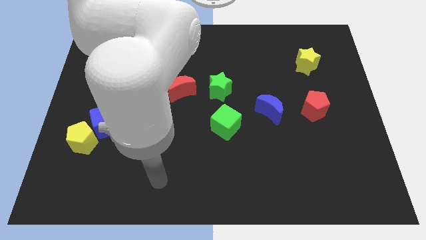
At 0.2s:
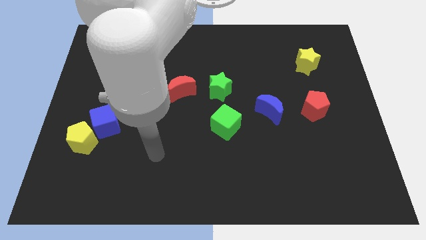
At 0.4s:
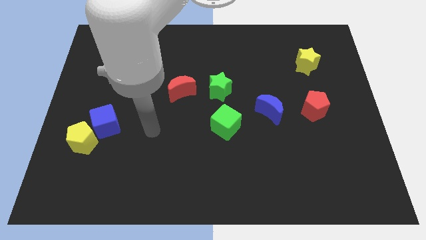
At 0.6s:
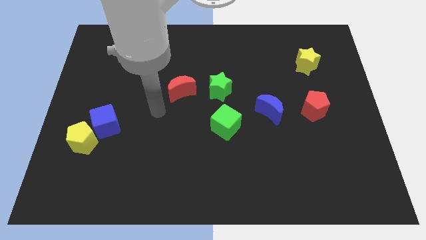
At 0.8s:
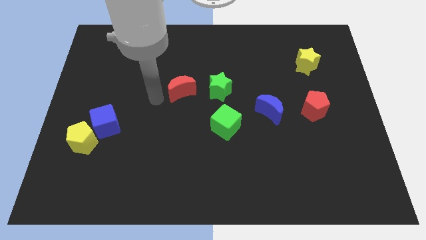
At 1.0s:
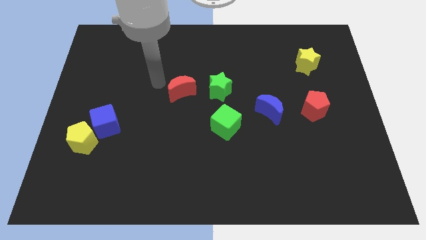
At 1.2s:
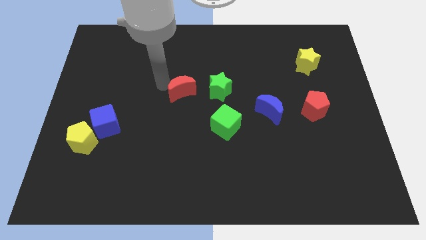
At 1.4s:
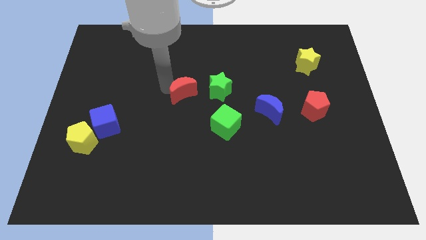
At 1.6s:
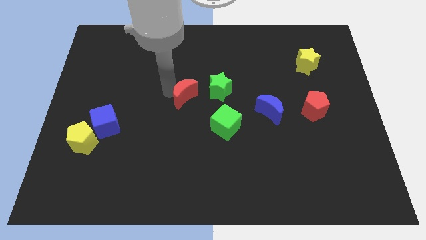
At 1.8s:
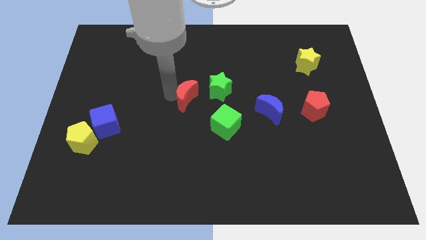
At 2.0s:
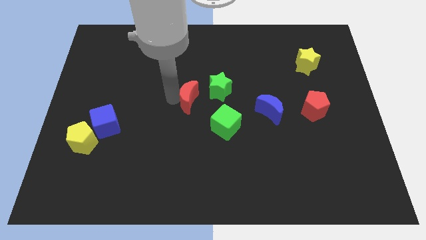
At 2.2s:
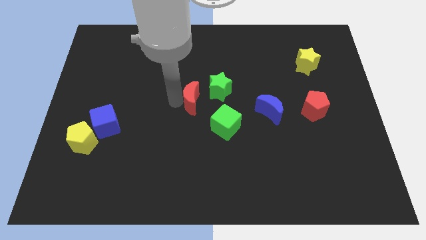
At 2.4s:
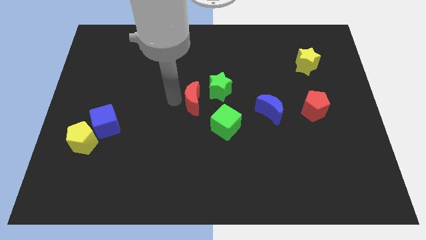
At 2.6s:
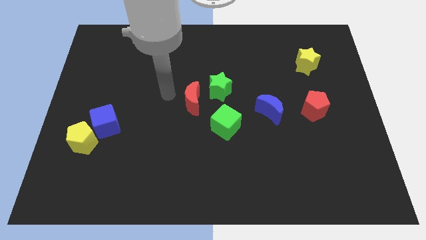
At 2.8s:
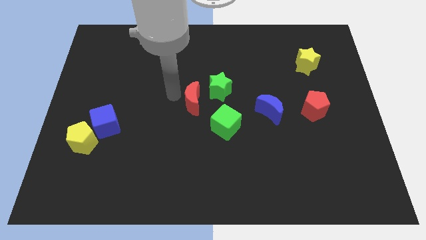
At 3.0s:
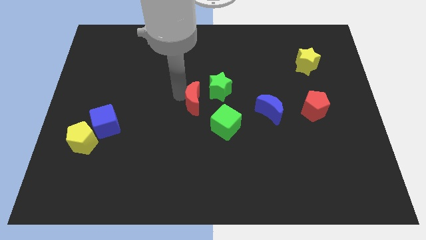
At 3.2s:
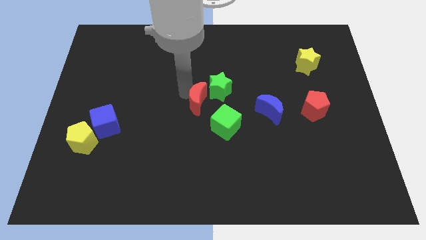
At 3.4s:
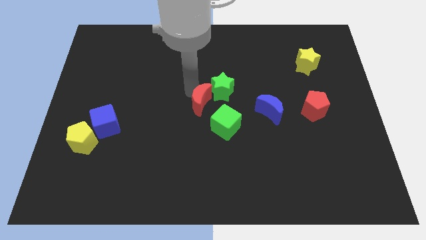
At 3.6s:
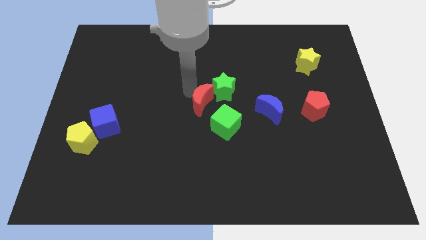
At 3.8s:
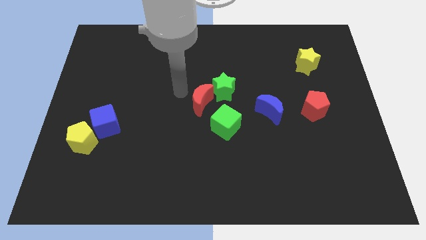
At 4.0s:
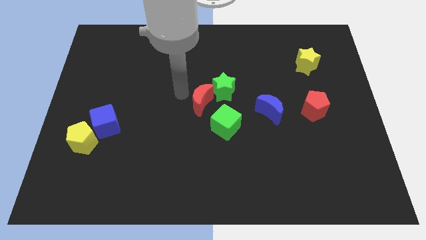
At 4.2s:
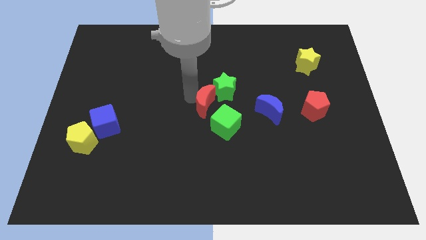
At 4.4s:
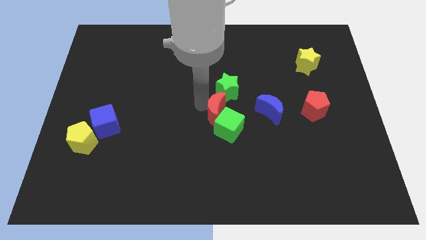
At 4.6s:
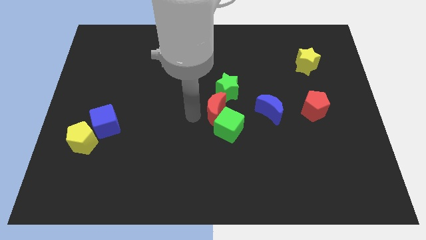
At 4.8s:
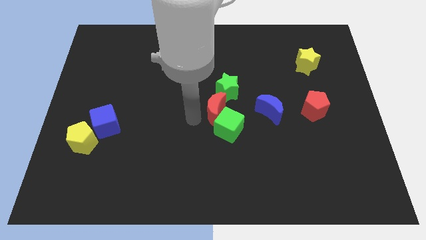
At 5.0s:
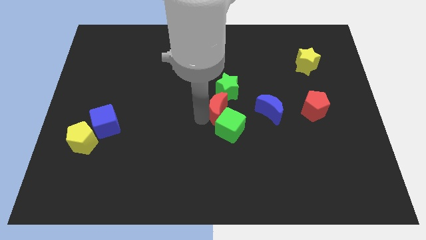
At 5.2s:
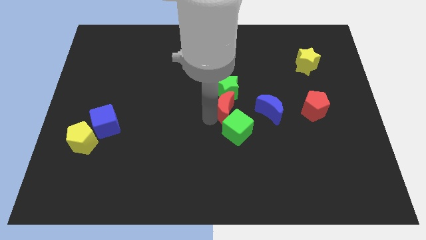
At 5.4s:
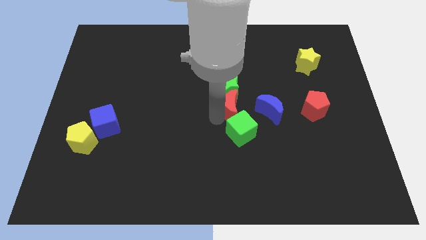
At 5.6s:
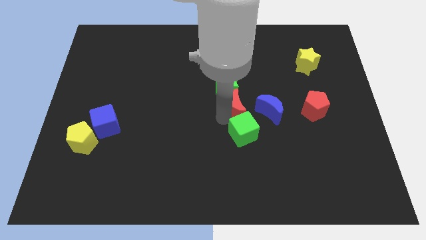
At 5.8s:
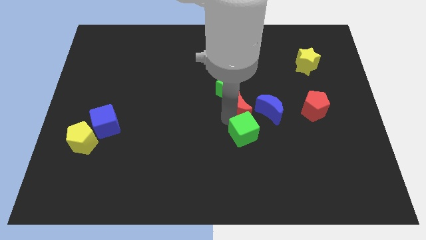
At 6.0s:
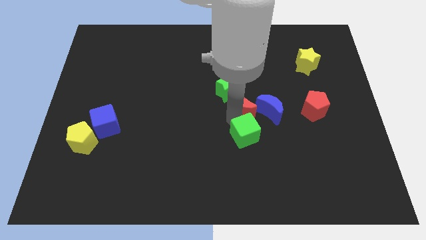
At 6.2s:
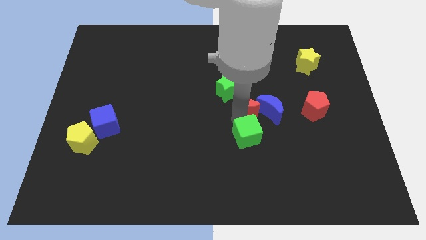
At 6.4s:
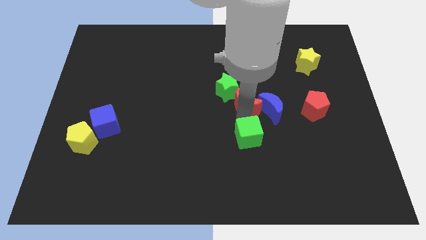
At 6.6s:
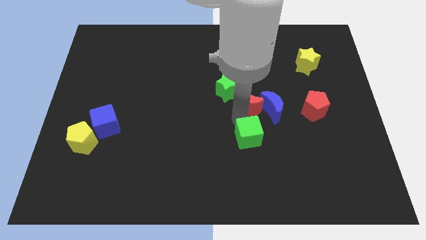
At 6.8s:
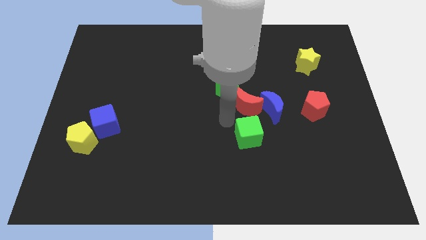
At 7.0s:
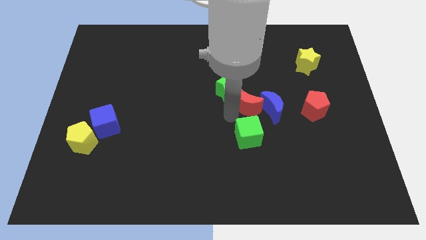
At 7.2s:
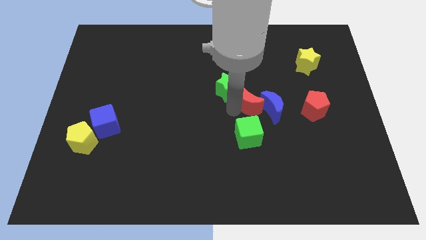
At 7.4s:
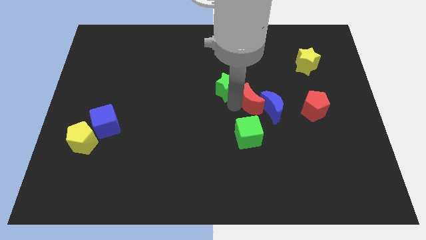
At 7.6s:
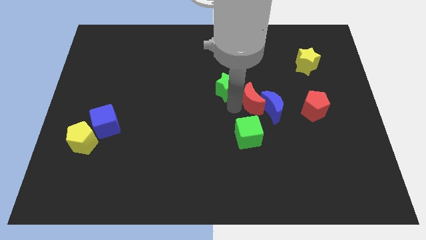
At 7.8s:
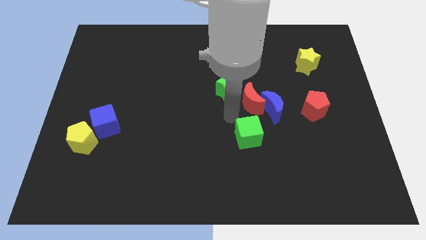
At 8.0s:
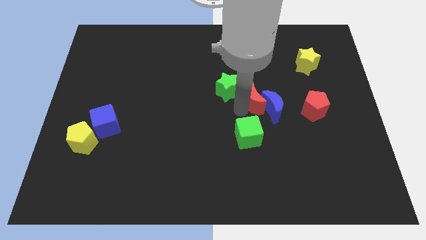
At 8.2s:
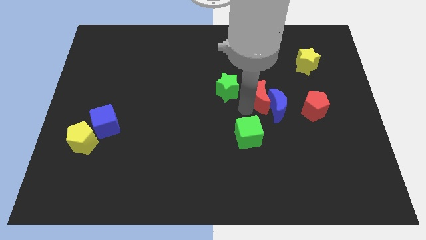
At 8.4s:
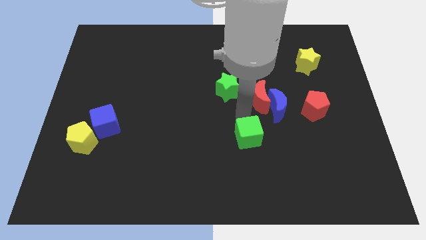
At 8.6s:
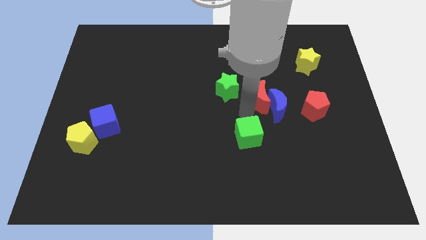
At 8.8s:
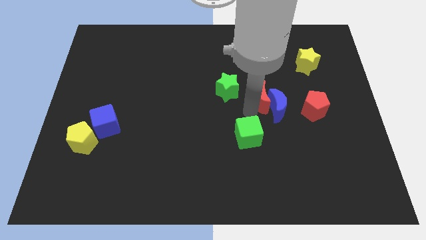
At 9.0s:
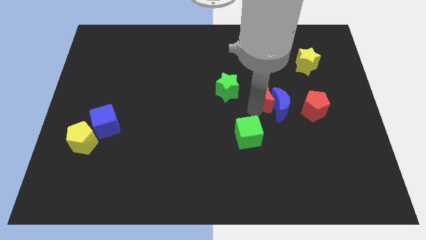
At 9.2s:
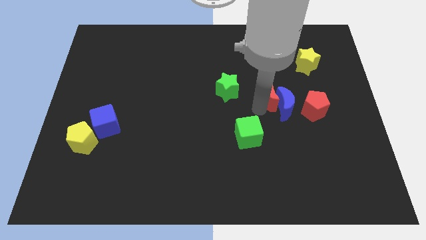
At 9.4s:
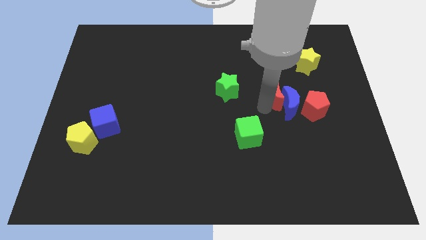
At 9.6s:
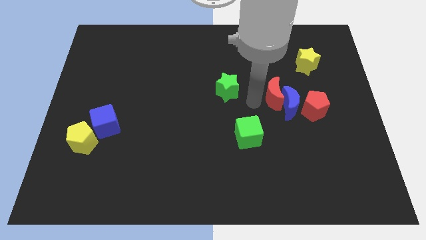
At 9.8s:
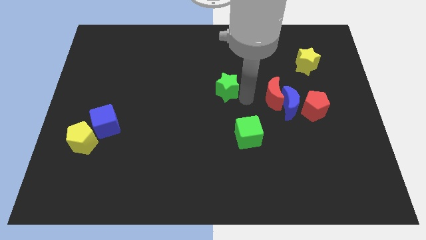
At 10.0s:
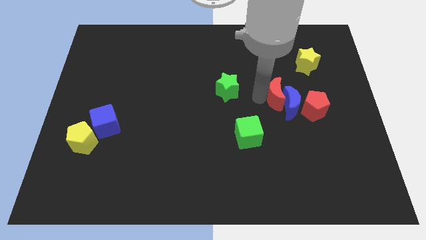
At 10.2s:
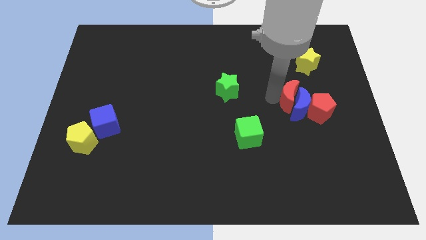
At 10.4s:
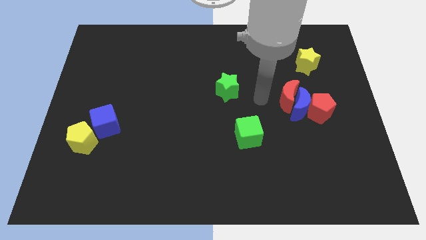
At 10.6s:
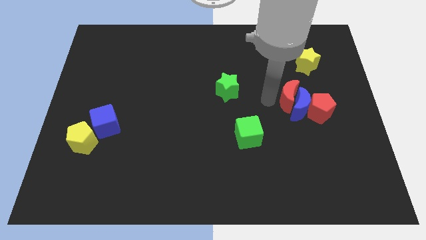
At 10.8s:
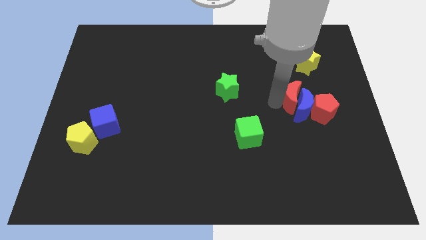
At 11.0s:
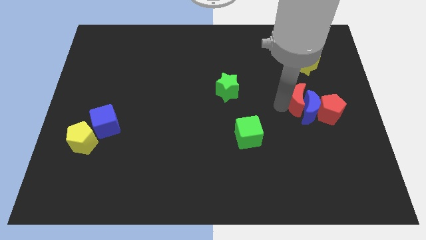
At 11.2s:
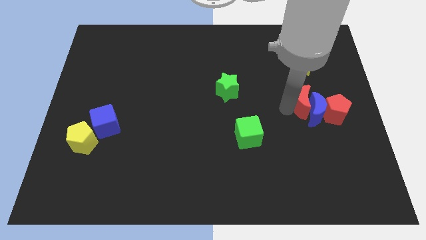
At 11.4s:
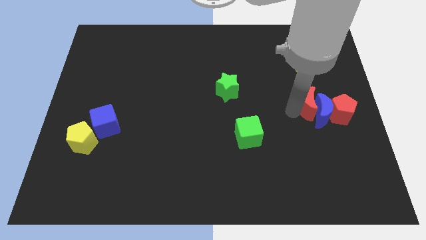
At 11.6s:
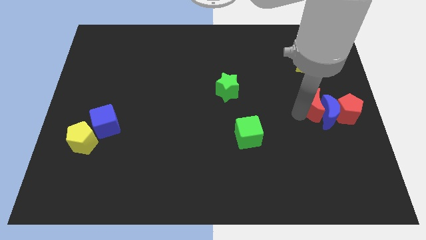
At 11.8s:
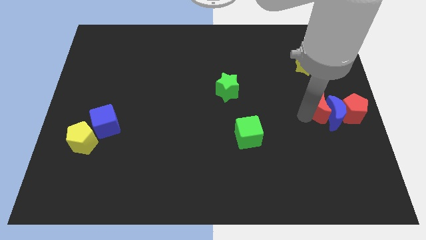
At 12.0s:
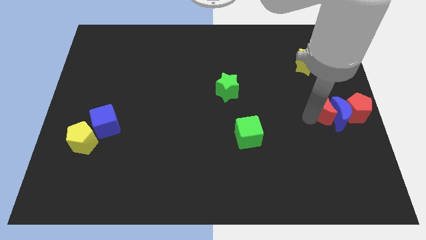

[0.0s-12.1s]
push the red moon to the right side of the board
